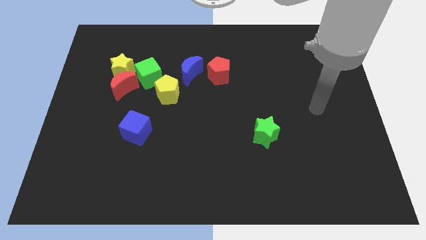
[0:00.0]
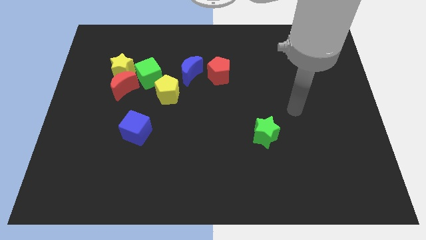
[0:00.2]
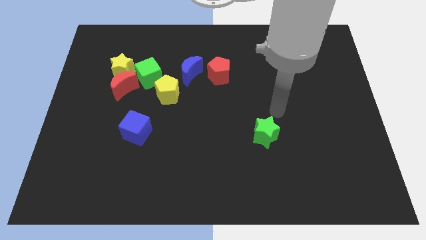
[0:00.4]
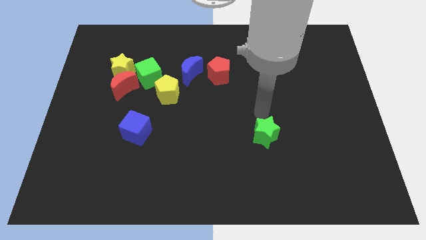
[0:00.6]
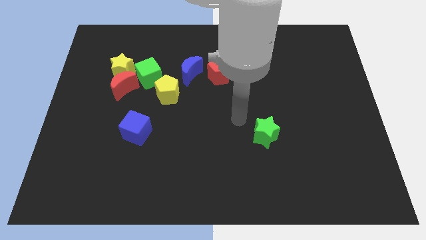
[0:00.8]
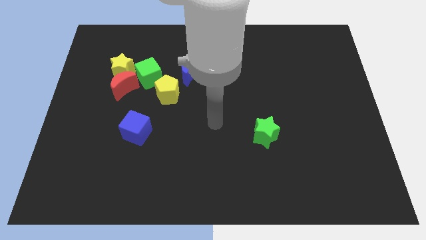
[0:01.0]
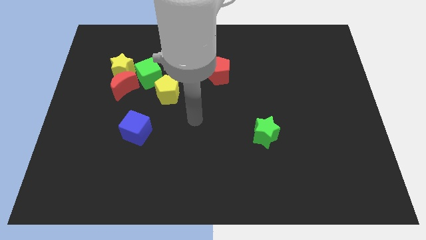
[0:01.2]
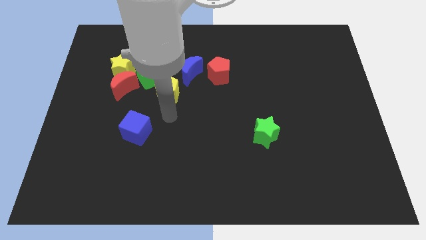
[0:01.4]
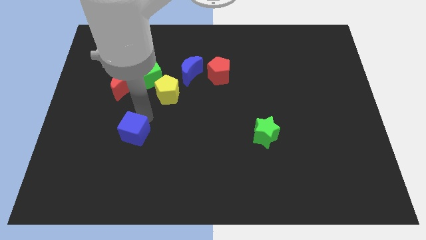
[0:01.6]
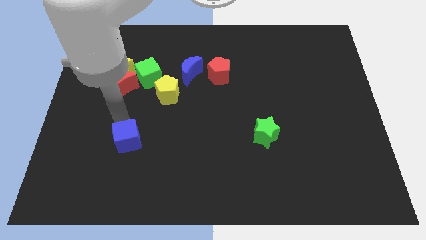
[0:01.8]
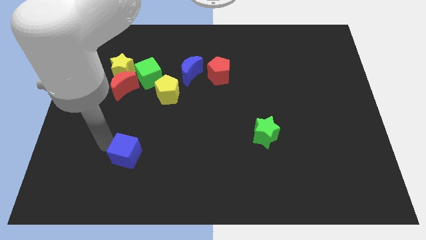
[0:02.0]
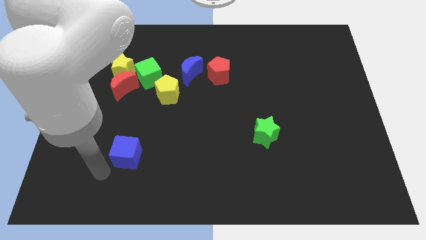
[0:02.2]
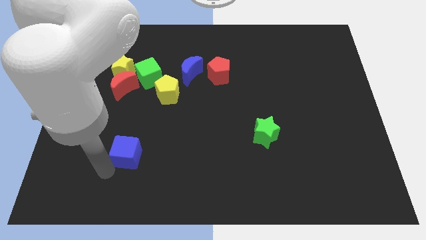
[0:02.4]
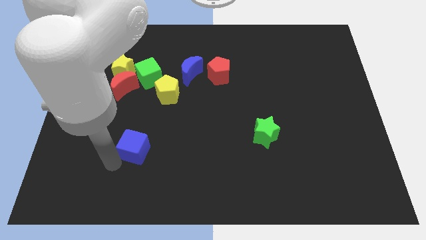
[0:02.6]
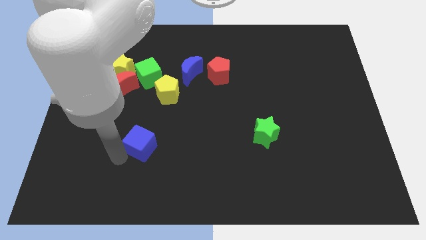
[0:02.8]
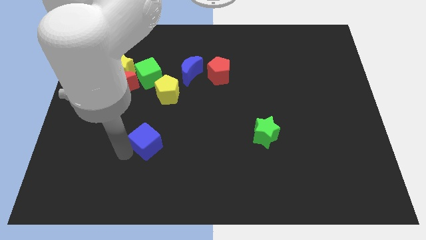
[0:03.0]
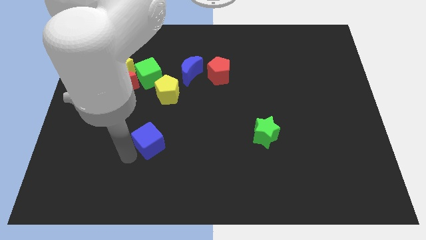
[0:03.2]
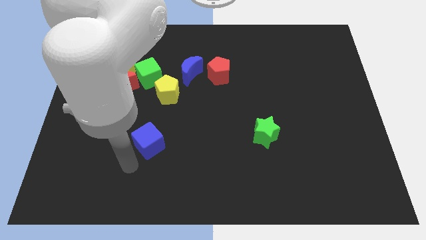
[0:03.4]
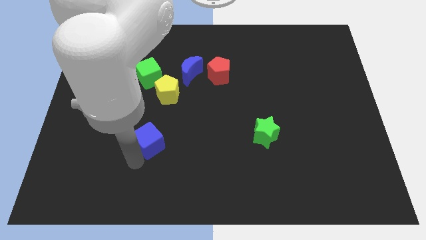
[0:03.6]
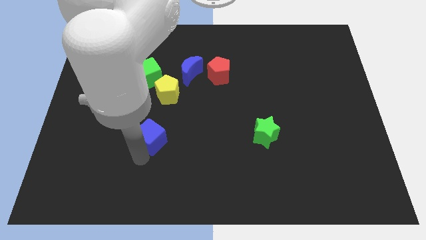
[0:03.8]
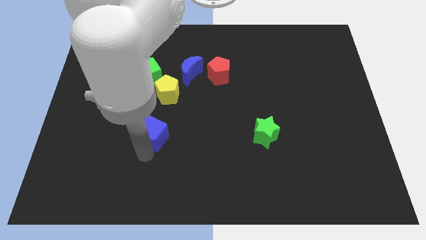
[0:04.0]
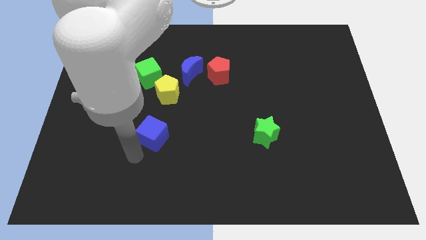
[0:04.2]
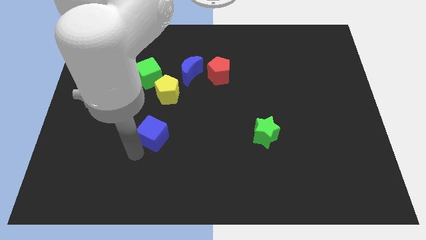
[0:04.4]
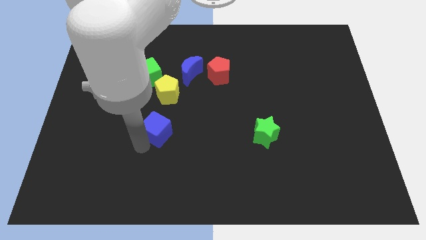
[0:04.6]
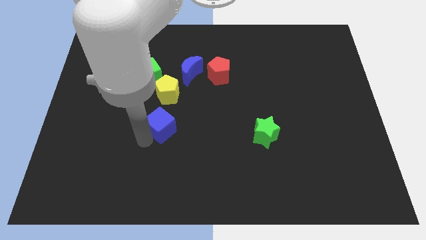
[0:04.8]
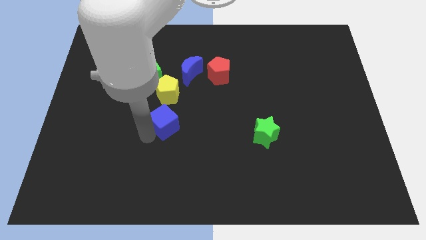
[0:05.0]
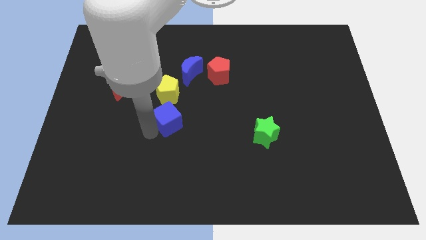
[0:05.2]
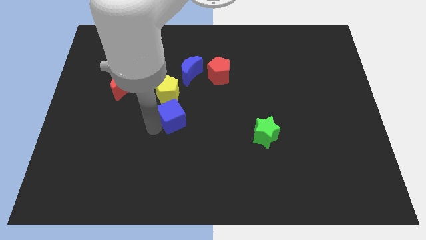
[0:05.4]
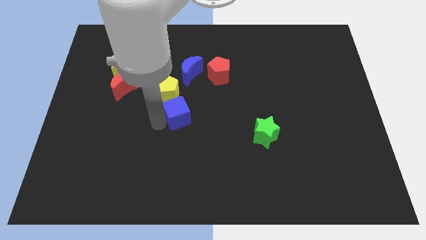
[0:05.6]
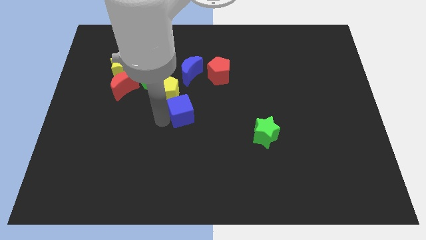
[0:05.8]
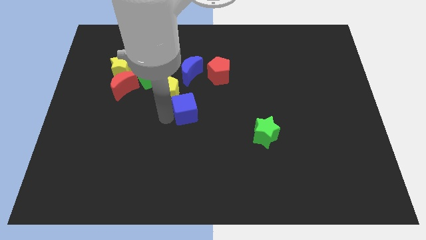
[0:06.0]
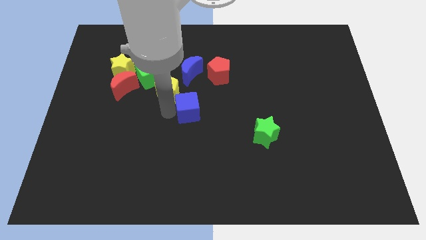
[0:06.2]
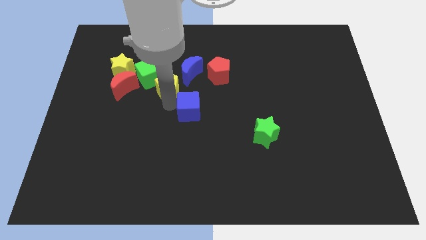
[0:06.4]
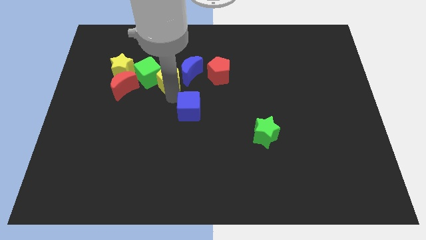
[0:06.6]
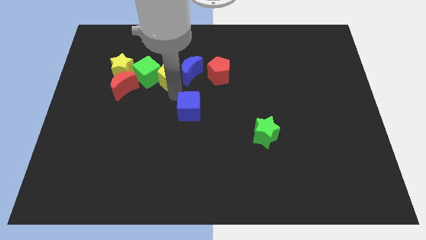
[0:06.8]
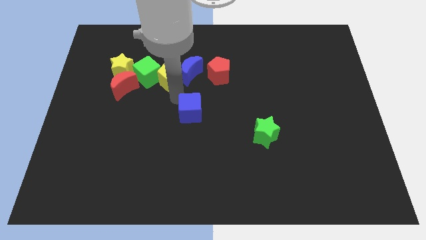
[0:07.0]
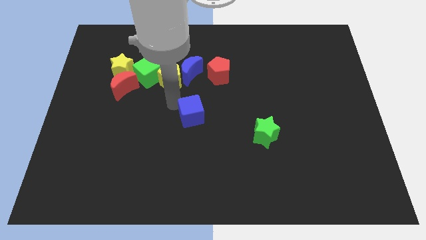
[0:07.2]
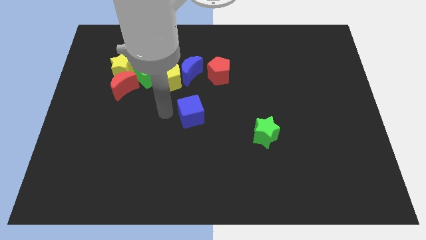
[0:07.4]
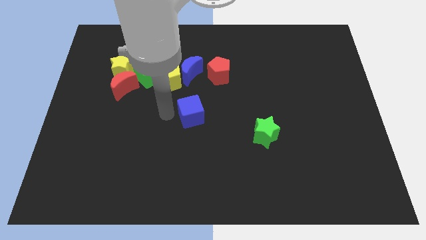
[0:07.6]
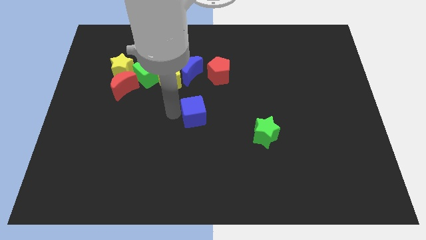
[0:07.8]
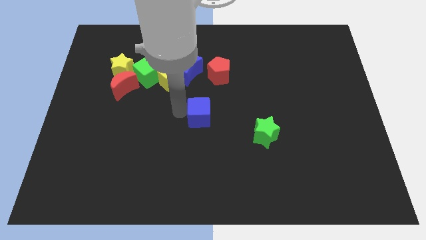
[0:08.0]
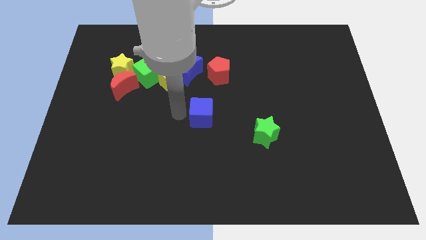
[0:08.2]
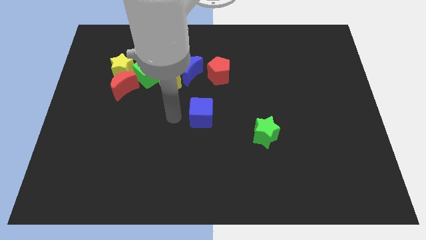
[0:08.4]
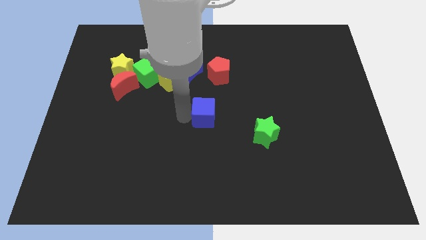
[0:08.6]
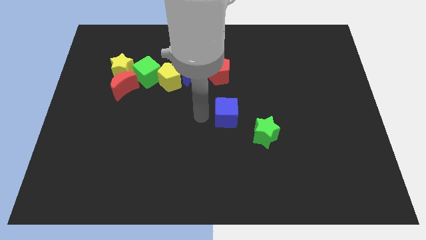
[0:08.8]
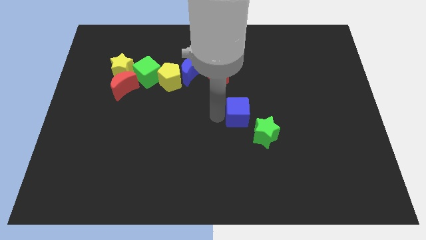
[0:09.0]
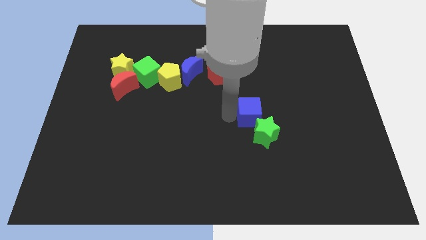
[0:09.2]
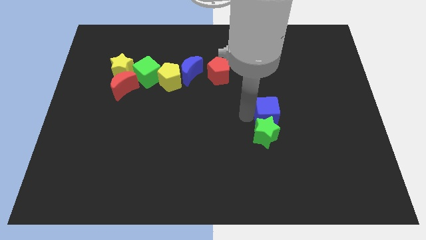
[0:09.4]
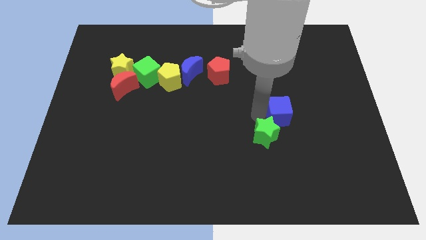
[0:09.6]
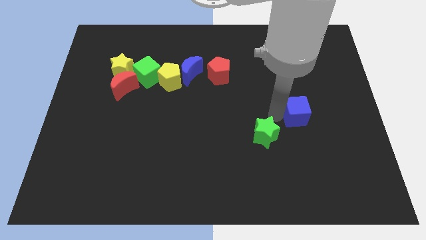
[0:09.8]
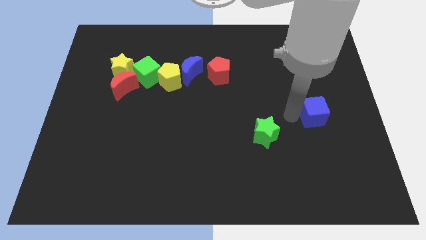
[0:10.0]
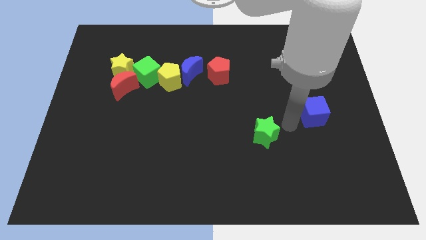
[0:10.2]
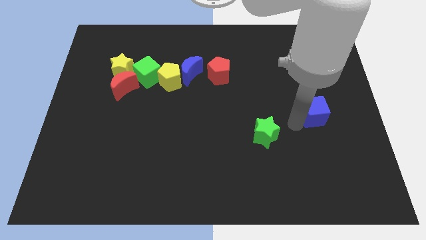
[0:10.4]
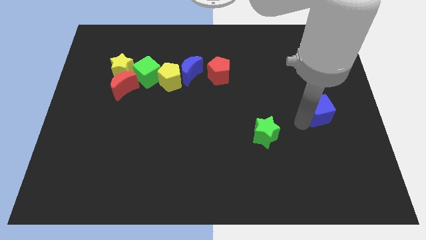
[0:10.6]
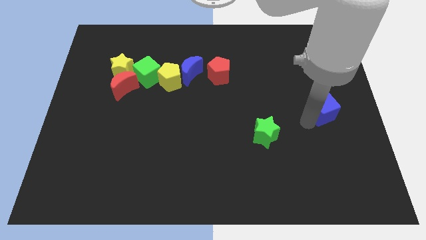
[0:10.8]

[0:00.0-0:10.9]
put the blue cube to the center right

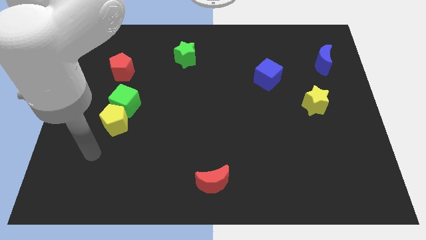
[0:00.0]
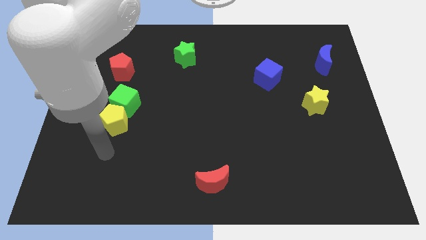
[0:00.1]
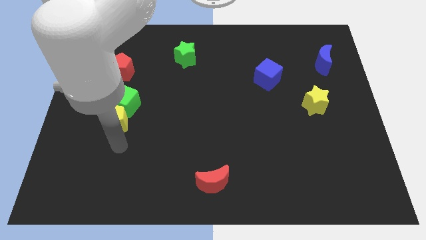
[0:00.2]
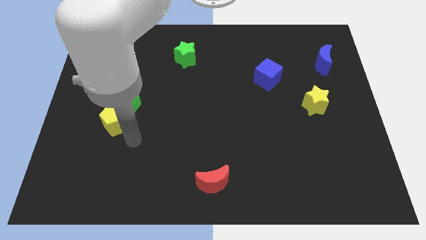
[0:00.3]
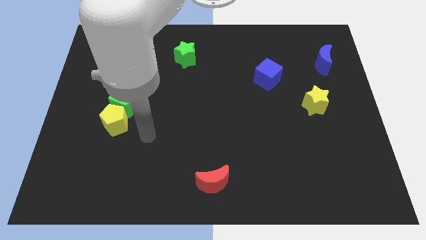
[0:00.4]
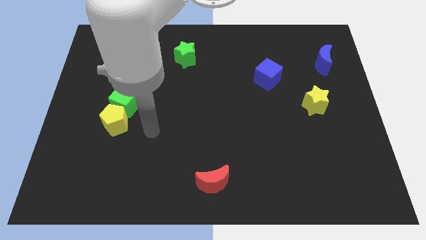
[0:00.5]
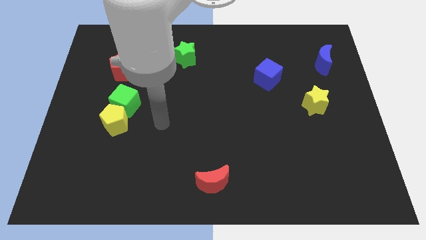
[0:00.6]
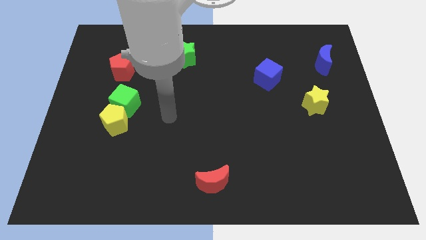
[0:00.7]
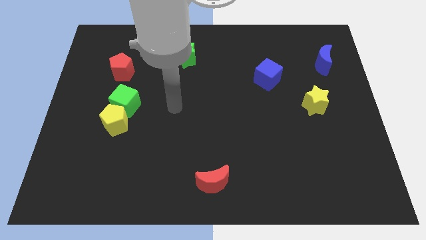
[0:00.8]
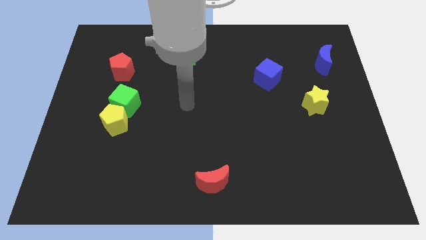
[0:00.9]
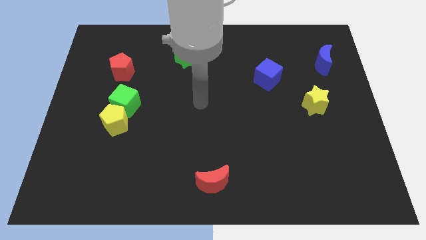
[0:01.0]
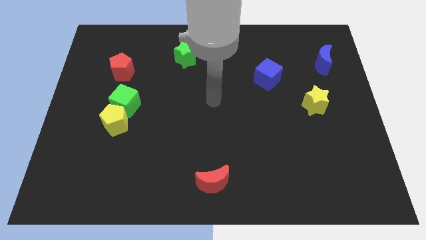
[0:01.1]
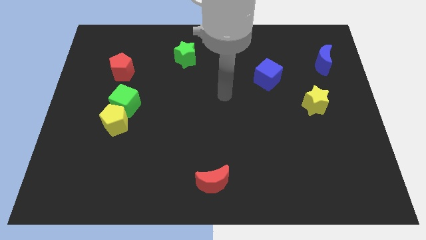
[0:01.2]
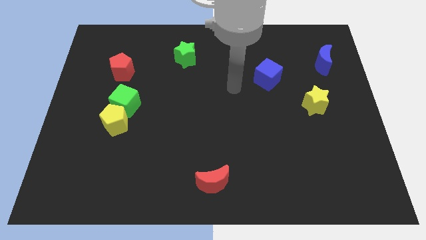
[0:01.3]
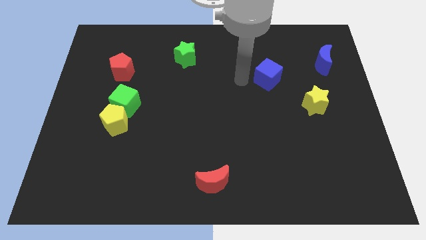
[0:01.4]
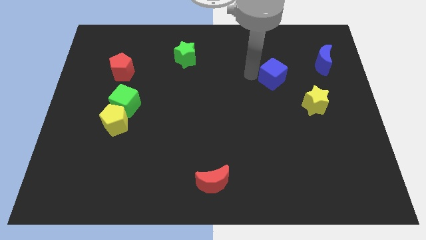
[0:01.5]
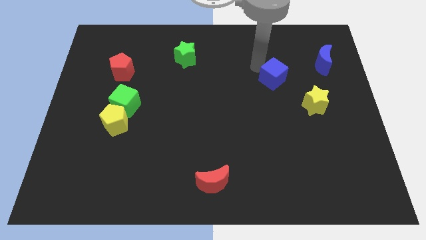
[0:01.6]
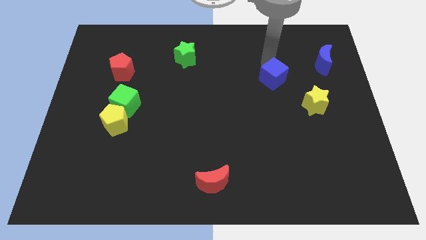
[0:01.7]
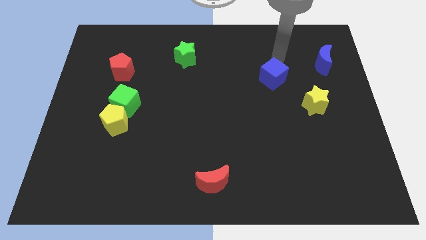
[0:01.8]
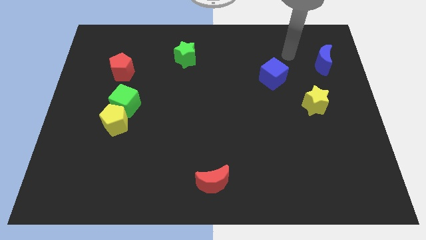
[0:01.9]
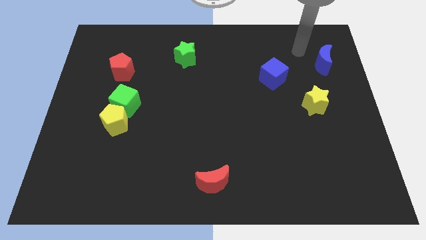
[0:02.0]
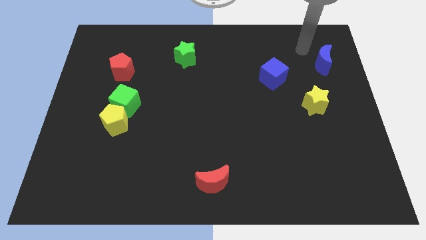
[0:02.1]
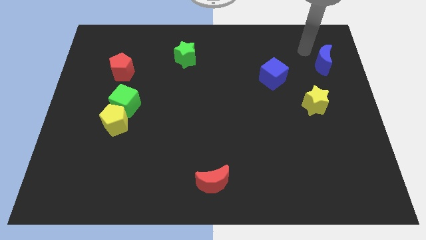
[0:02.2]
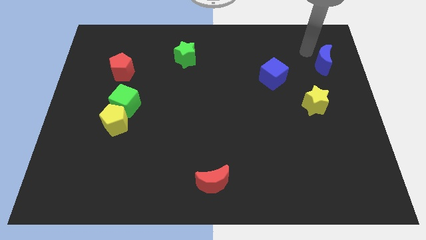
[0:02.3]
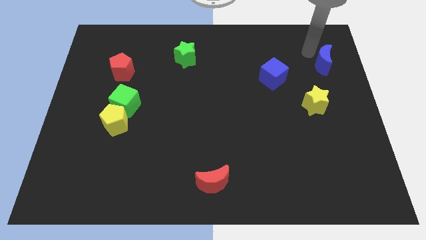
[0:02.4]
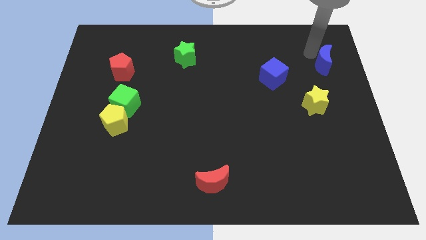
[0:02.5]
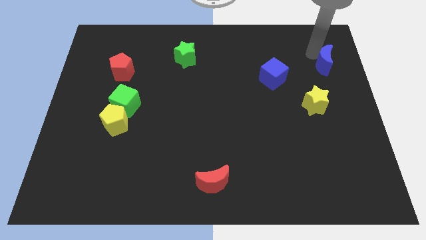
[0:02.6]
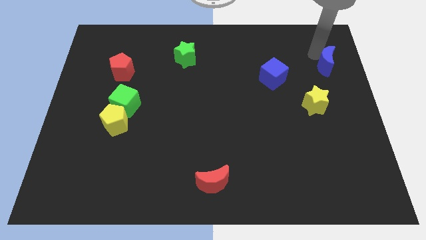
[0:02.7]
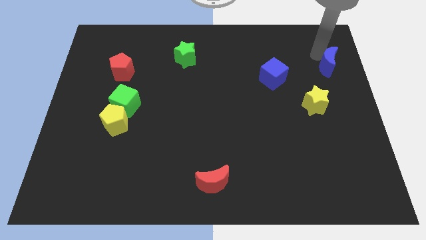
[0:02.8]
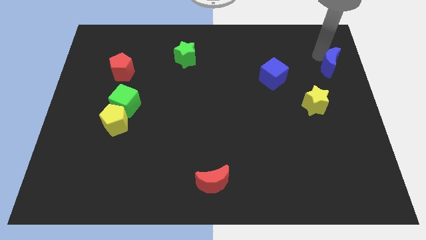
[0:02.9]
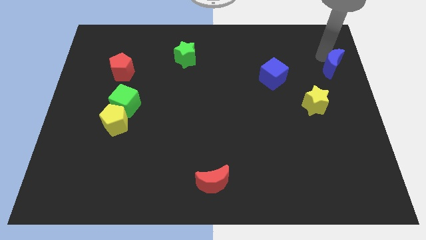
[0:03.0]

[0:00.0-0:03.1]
slide the blue moon to the right side
